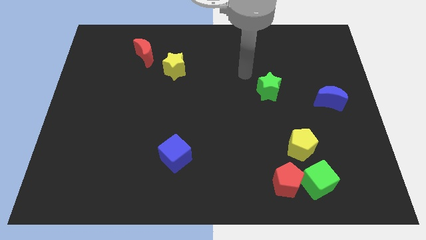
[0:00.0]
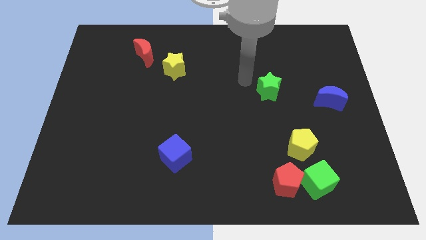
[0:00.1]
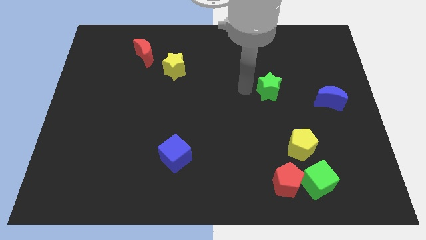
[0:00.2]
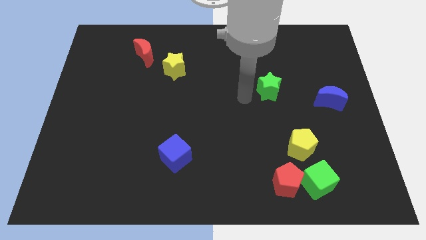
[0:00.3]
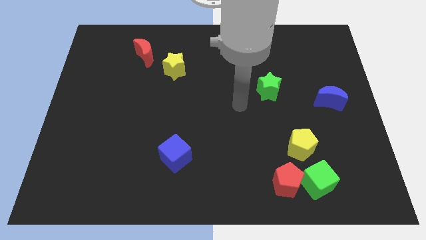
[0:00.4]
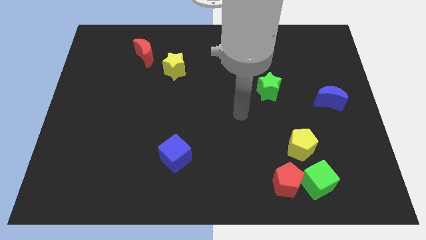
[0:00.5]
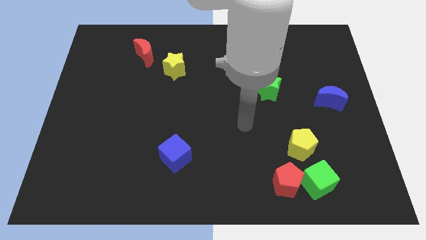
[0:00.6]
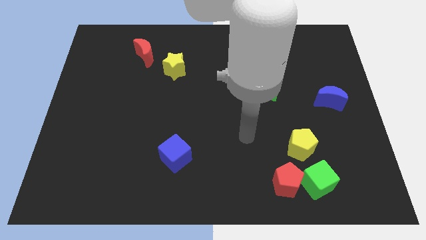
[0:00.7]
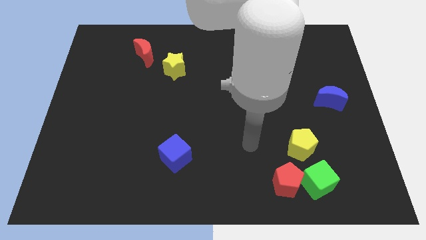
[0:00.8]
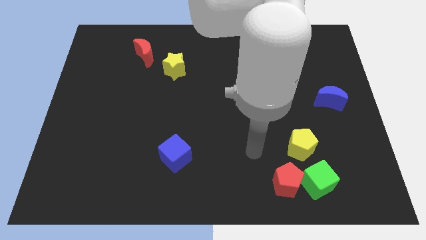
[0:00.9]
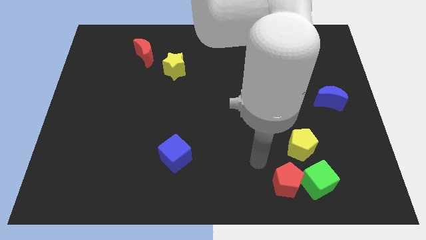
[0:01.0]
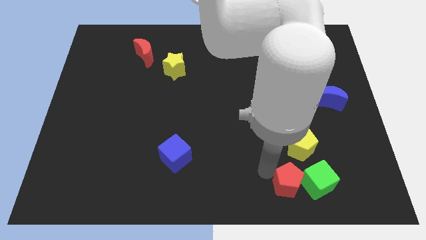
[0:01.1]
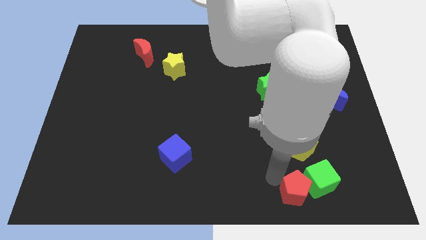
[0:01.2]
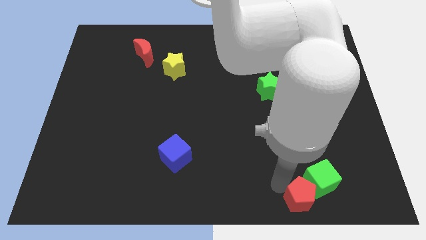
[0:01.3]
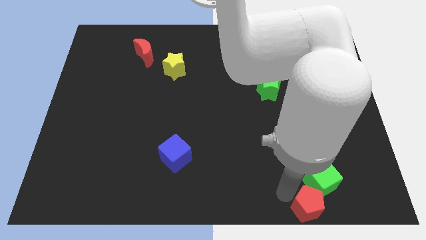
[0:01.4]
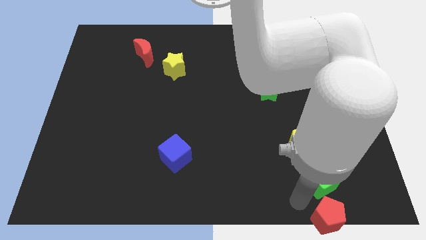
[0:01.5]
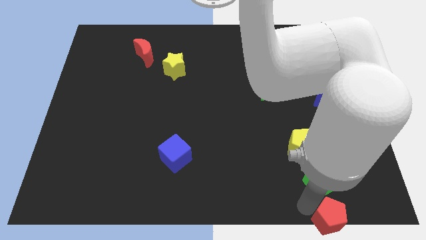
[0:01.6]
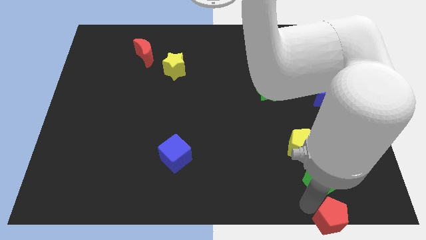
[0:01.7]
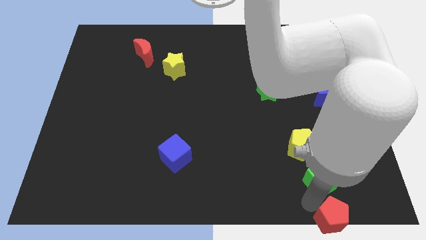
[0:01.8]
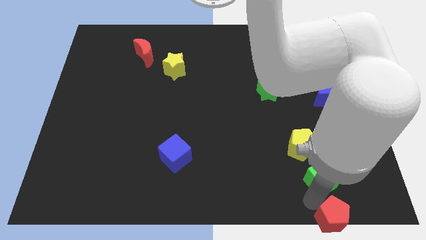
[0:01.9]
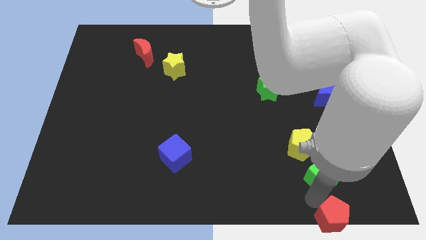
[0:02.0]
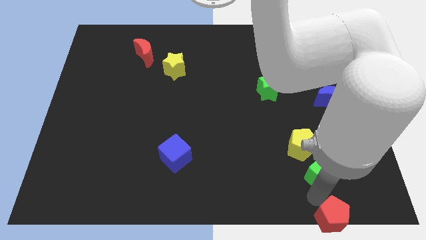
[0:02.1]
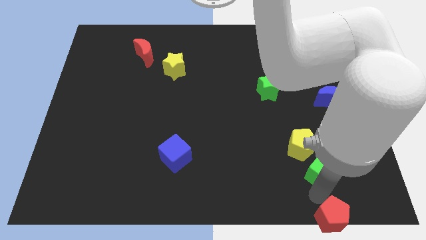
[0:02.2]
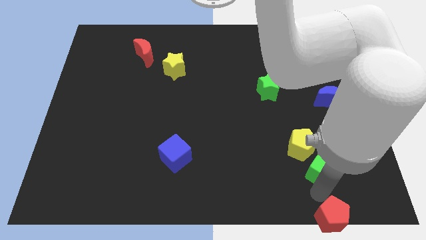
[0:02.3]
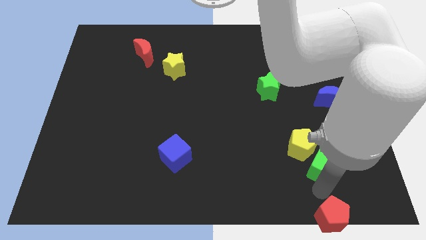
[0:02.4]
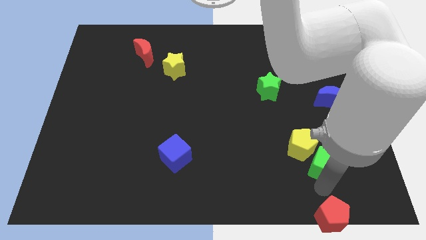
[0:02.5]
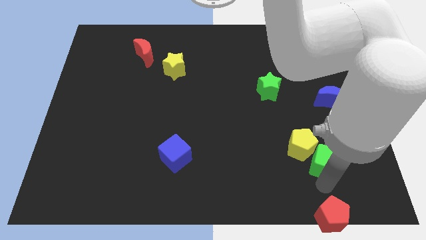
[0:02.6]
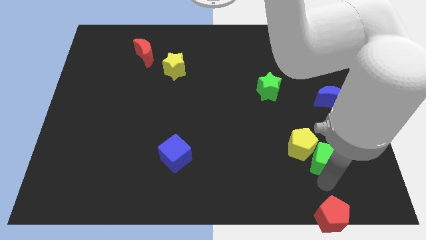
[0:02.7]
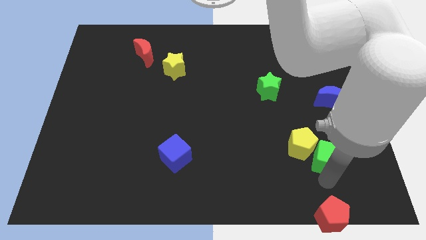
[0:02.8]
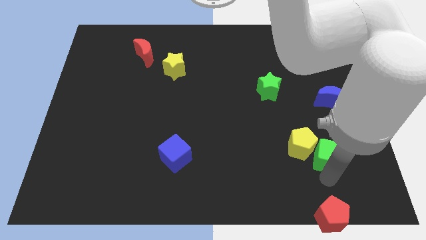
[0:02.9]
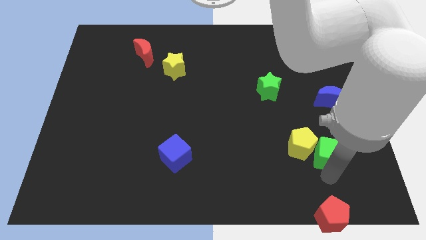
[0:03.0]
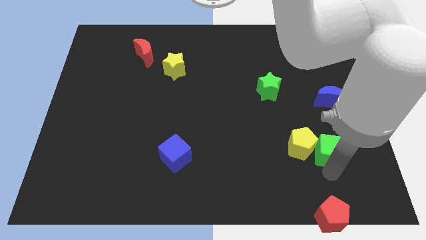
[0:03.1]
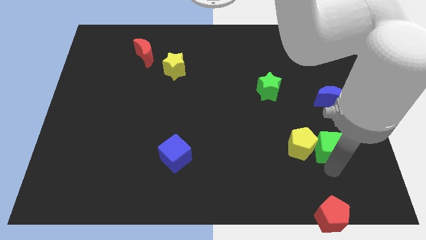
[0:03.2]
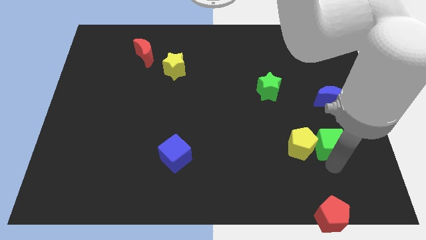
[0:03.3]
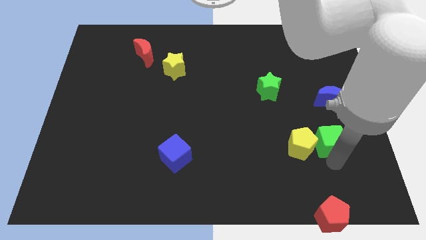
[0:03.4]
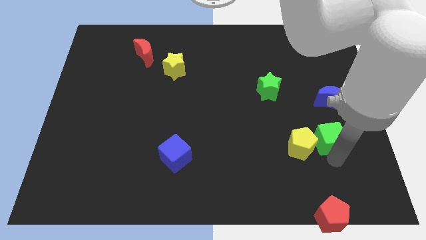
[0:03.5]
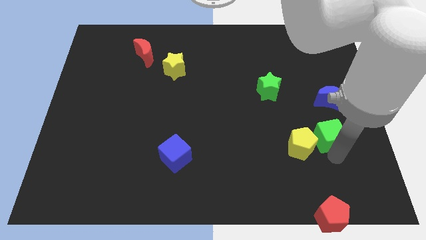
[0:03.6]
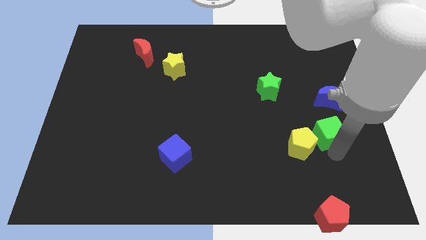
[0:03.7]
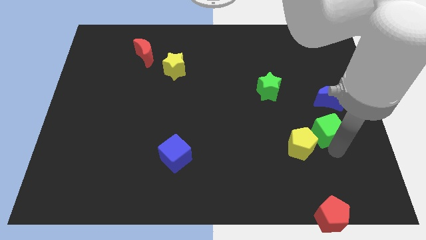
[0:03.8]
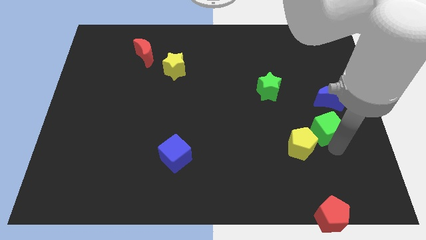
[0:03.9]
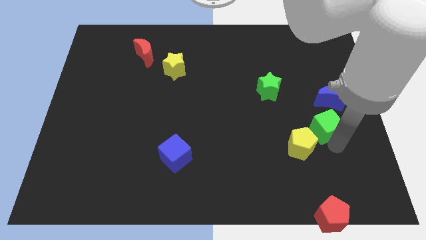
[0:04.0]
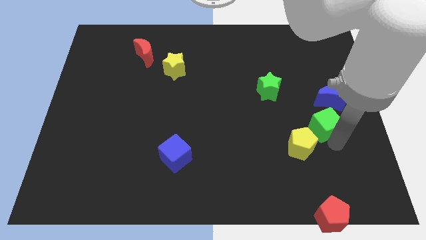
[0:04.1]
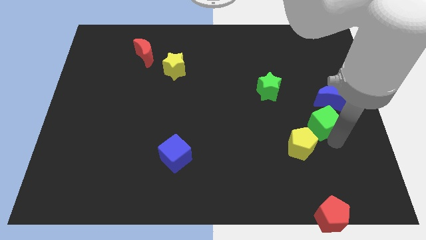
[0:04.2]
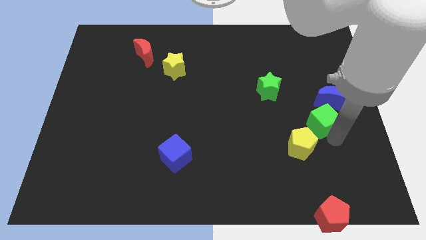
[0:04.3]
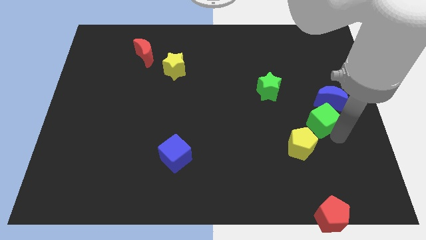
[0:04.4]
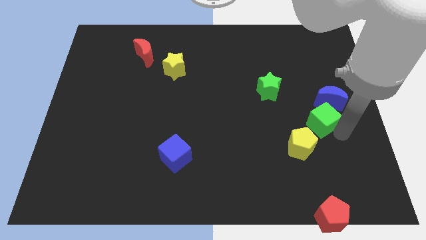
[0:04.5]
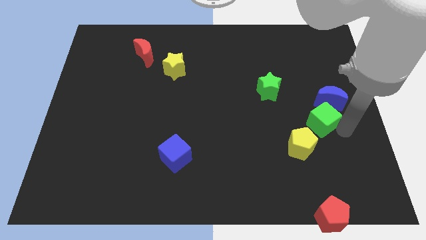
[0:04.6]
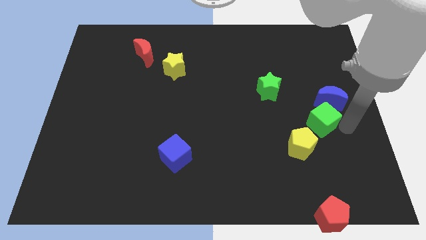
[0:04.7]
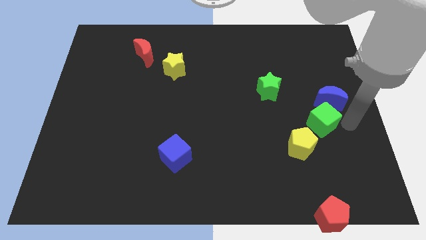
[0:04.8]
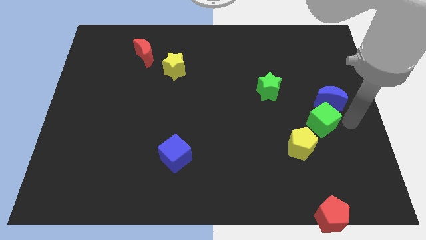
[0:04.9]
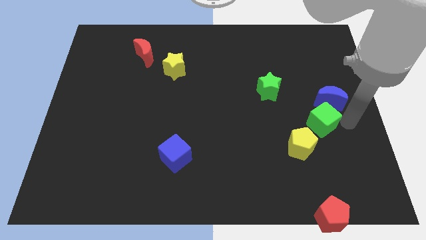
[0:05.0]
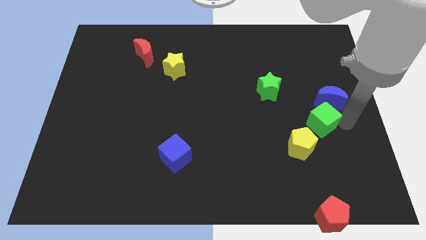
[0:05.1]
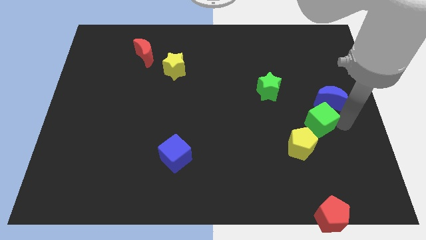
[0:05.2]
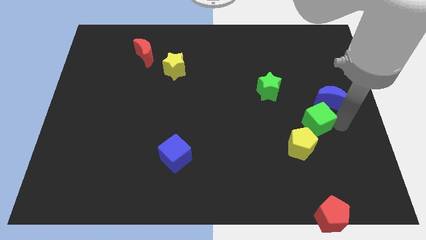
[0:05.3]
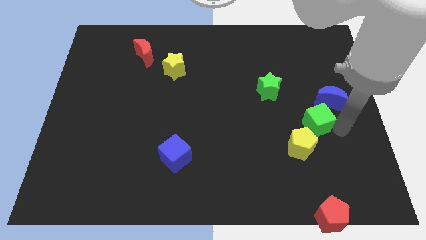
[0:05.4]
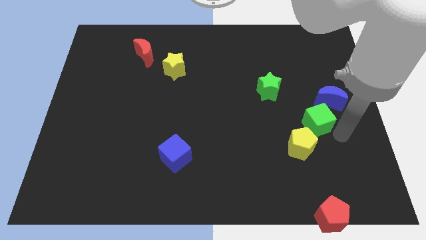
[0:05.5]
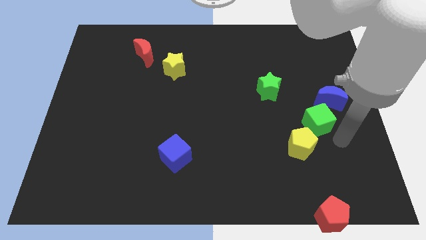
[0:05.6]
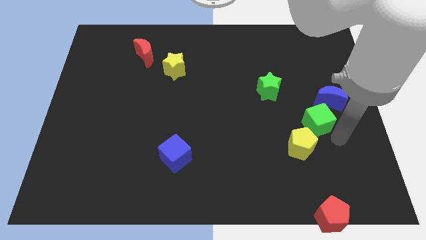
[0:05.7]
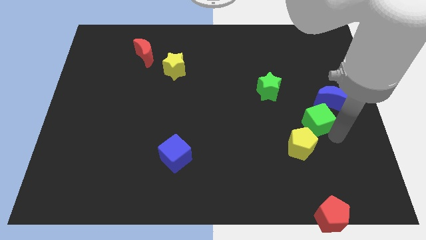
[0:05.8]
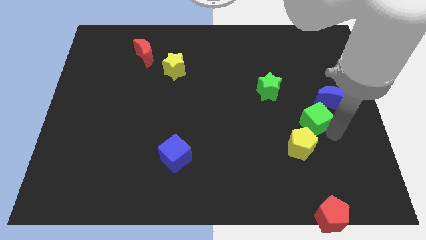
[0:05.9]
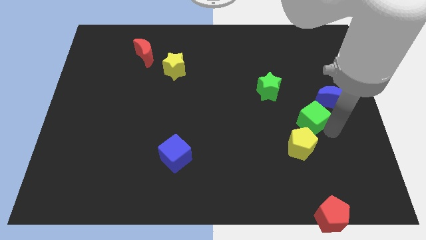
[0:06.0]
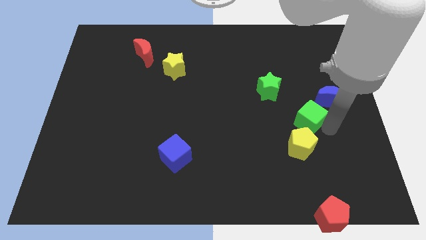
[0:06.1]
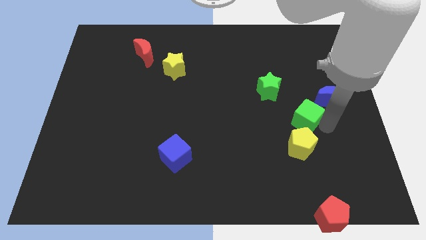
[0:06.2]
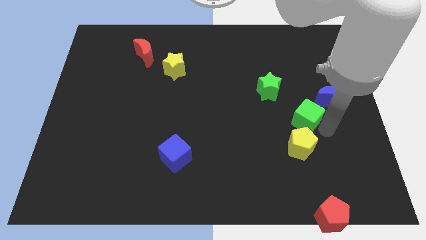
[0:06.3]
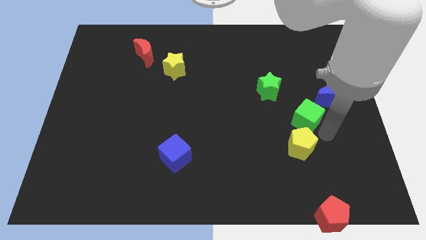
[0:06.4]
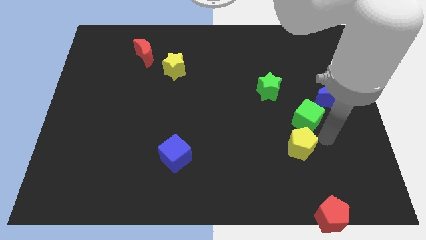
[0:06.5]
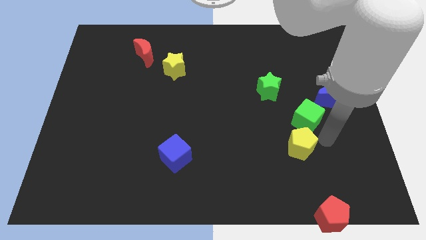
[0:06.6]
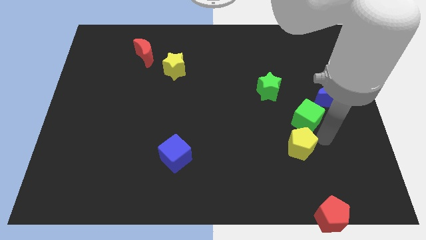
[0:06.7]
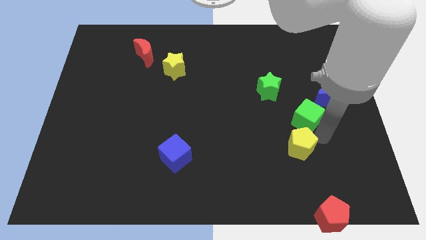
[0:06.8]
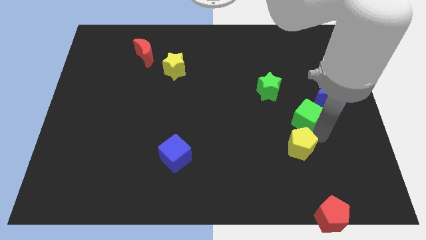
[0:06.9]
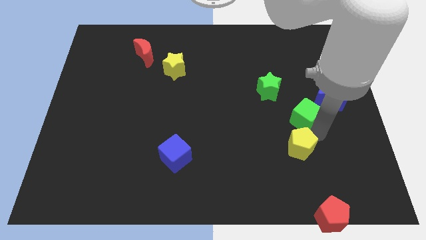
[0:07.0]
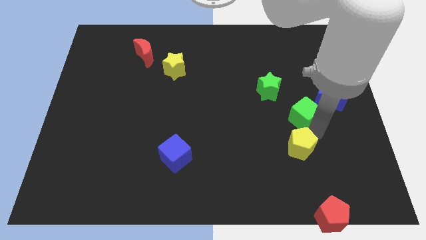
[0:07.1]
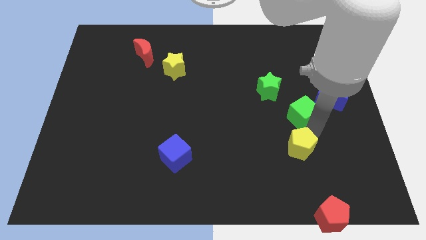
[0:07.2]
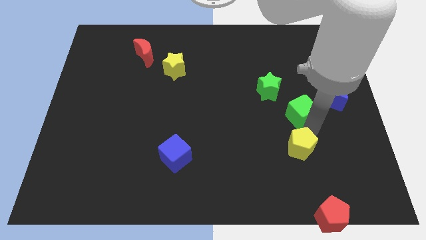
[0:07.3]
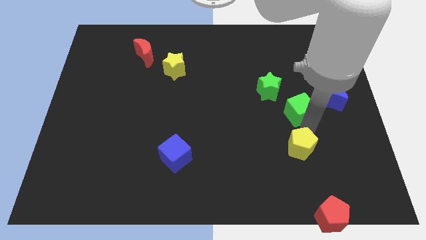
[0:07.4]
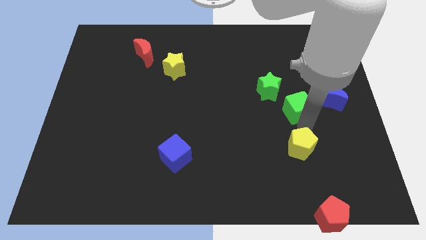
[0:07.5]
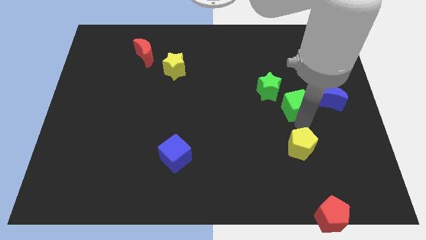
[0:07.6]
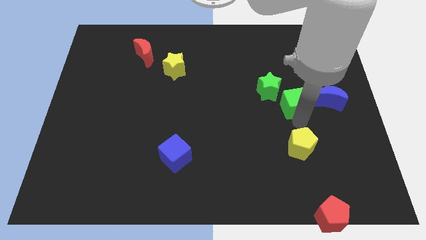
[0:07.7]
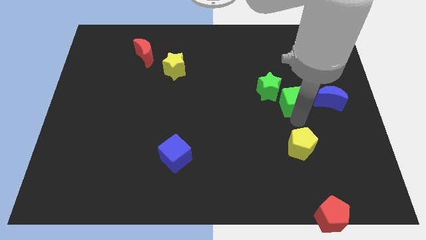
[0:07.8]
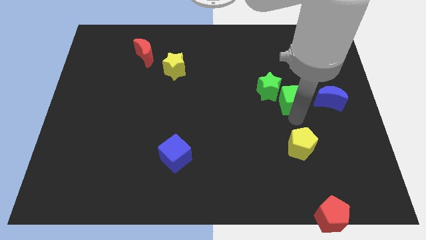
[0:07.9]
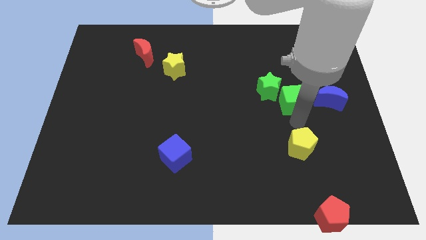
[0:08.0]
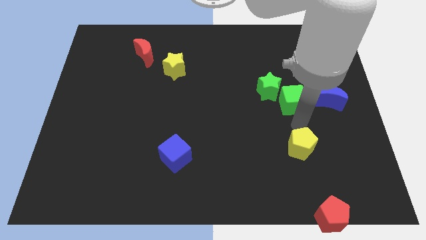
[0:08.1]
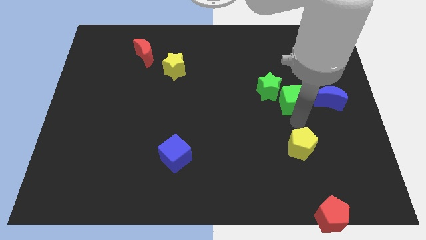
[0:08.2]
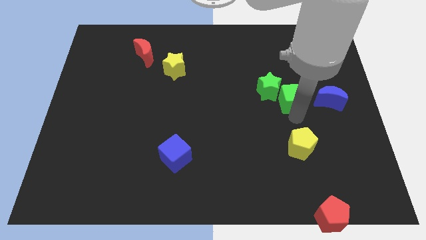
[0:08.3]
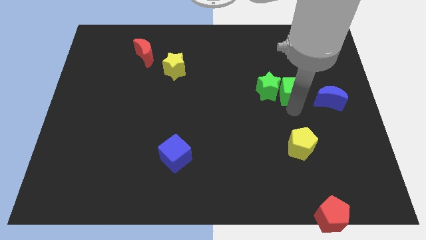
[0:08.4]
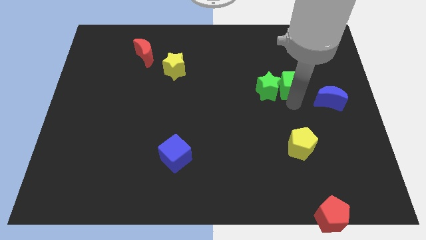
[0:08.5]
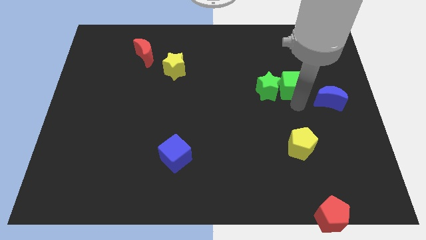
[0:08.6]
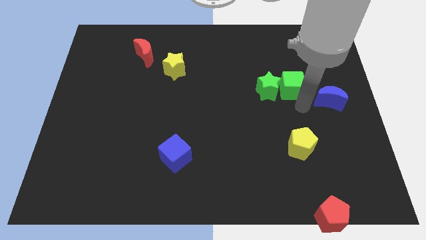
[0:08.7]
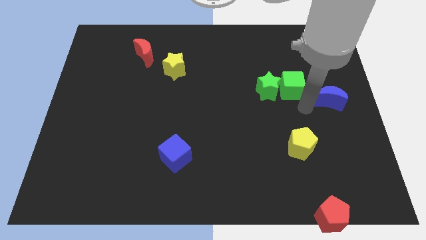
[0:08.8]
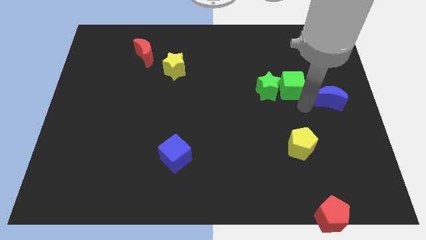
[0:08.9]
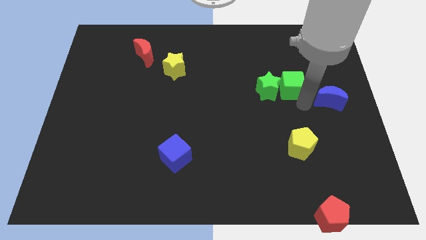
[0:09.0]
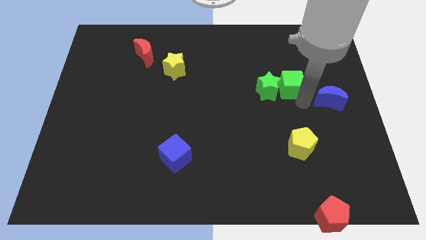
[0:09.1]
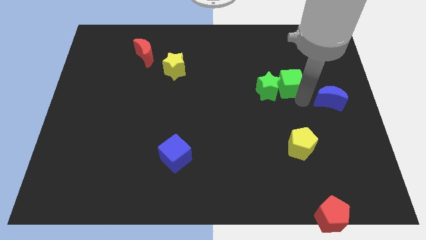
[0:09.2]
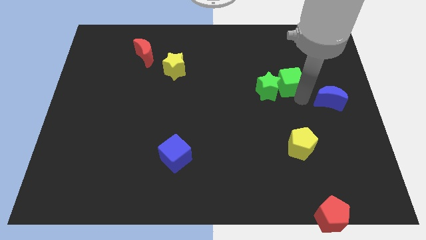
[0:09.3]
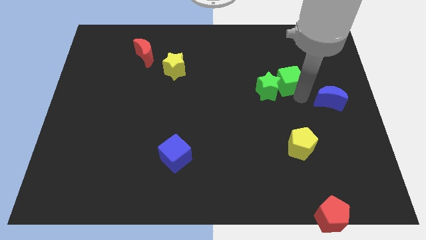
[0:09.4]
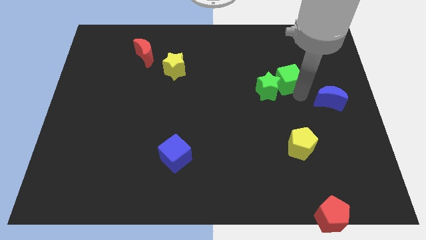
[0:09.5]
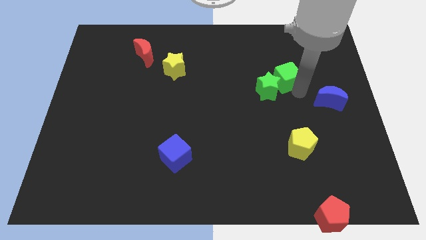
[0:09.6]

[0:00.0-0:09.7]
move the green cube above the green star
